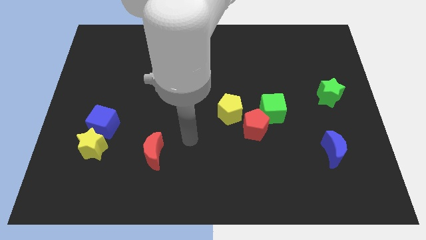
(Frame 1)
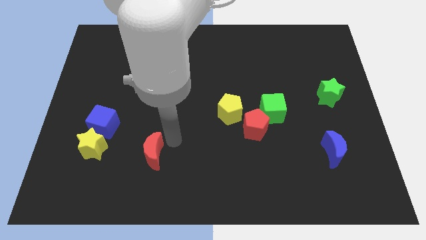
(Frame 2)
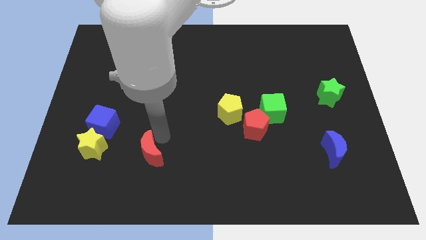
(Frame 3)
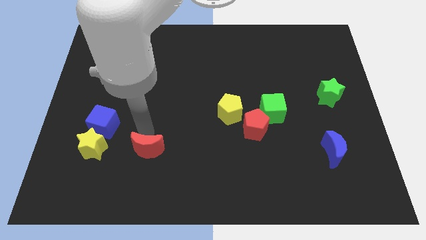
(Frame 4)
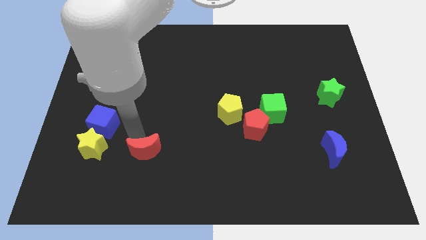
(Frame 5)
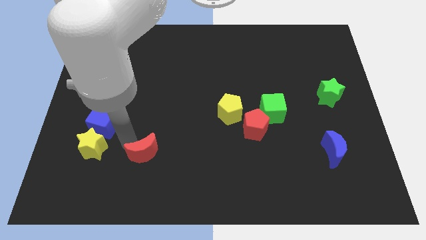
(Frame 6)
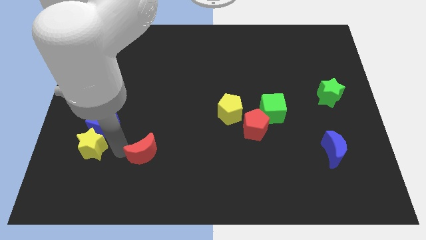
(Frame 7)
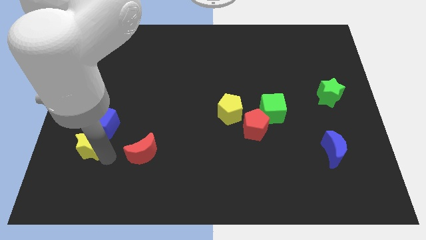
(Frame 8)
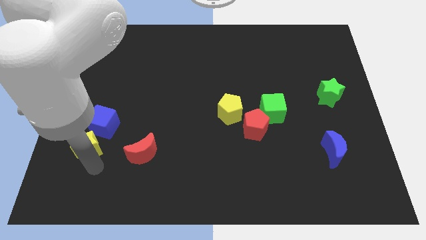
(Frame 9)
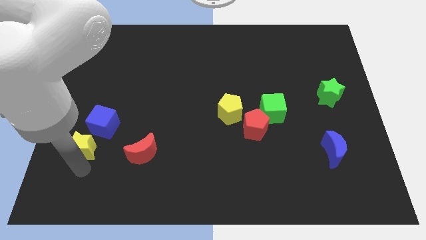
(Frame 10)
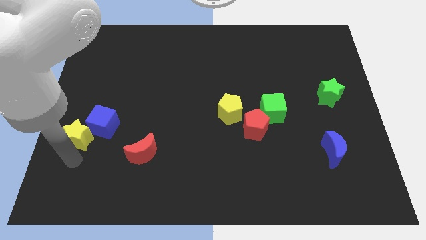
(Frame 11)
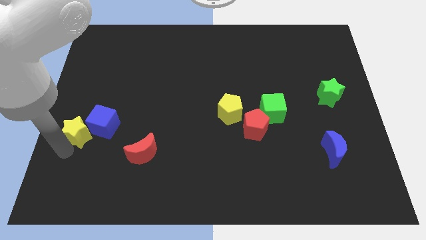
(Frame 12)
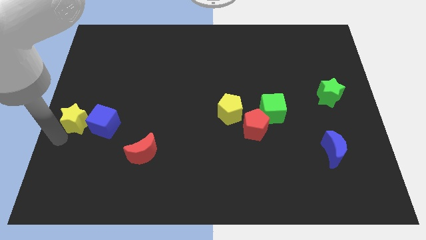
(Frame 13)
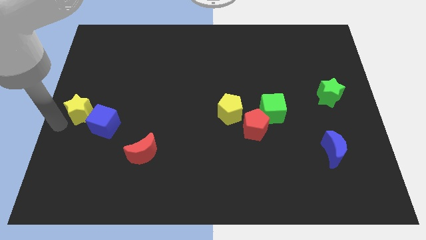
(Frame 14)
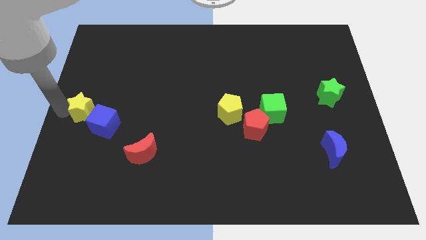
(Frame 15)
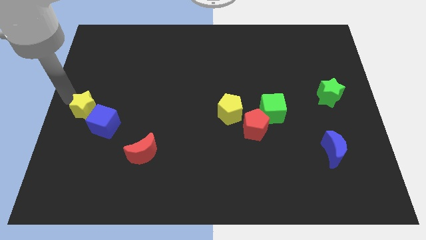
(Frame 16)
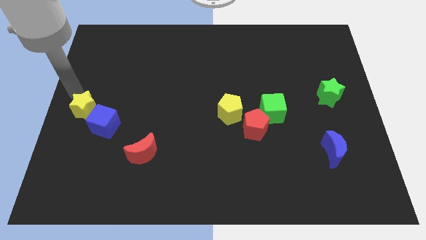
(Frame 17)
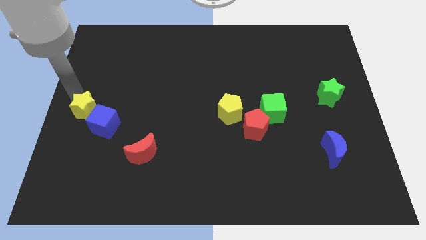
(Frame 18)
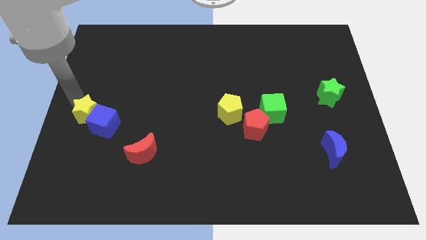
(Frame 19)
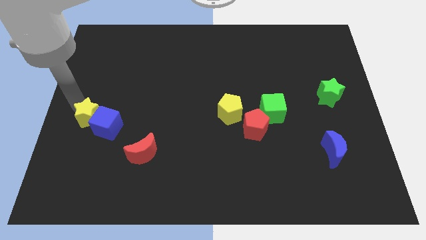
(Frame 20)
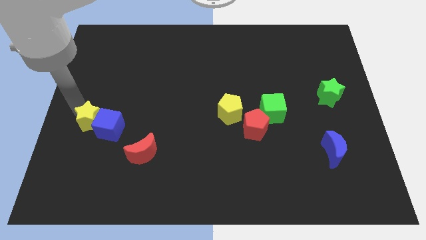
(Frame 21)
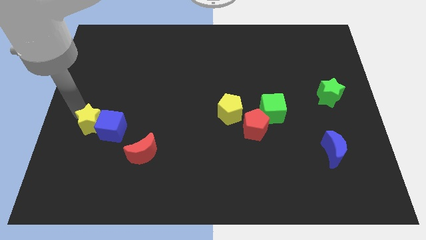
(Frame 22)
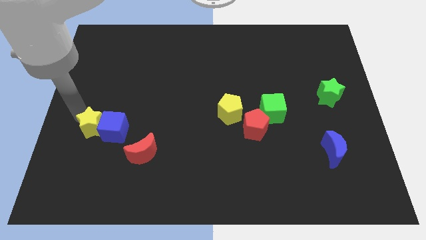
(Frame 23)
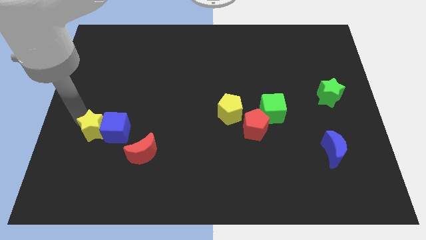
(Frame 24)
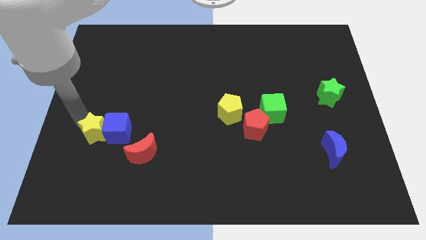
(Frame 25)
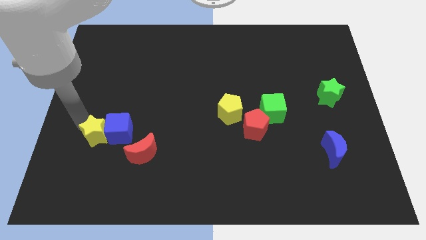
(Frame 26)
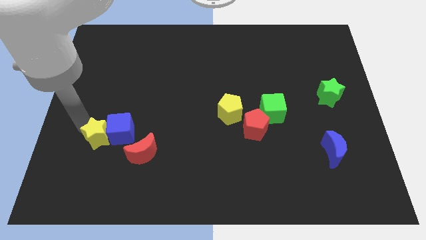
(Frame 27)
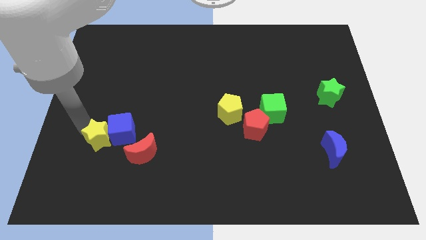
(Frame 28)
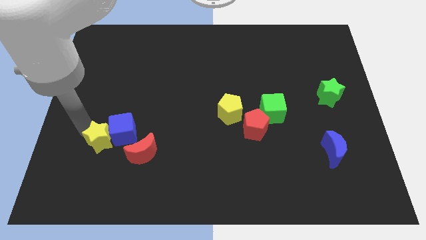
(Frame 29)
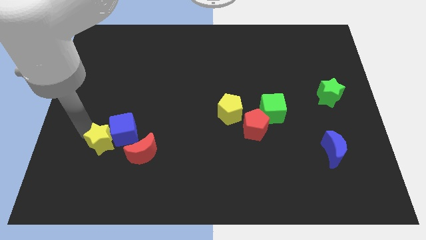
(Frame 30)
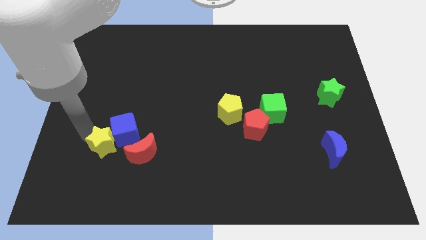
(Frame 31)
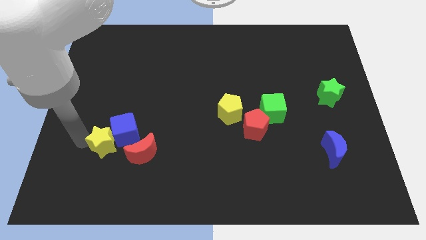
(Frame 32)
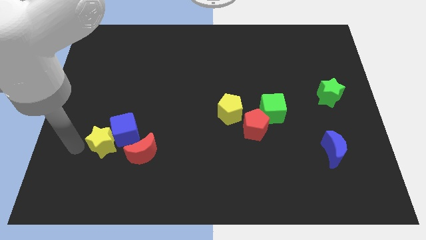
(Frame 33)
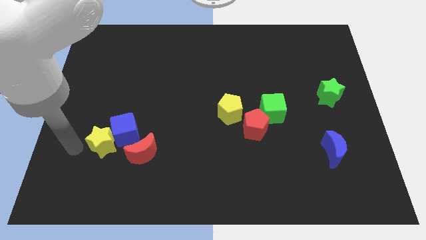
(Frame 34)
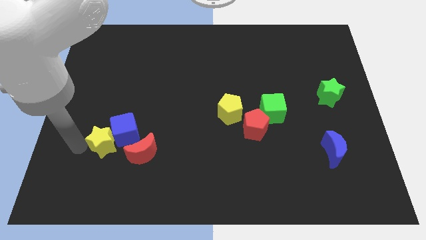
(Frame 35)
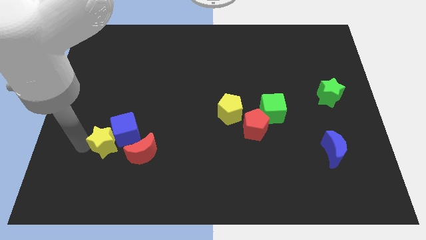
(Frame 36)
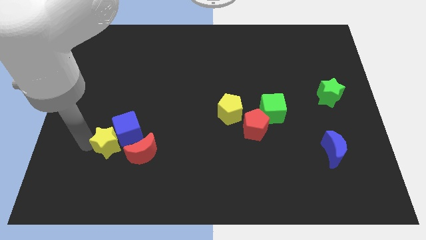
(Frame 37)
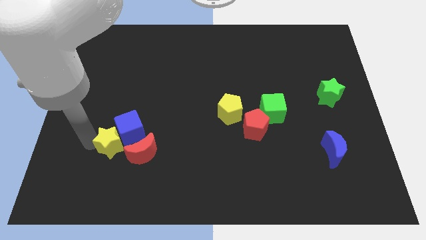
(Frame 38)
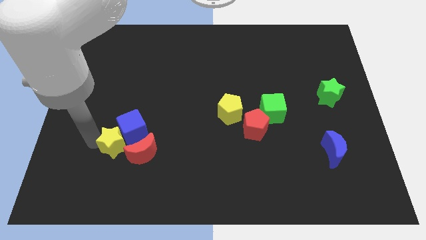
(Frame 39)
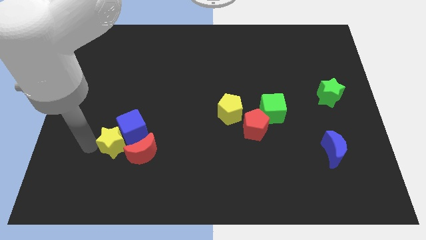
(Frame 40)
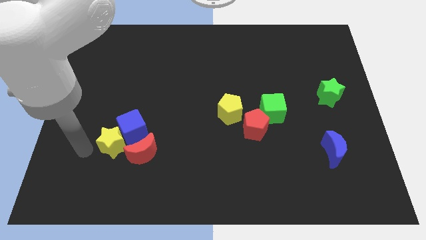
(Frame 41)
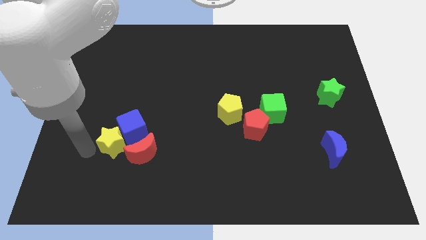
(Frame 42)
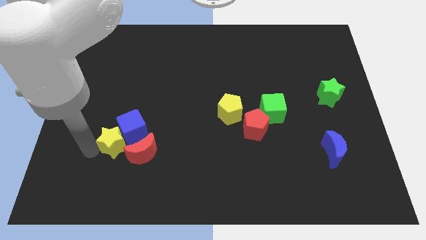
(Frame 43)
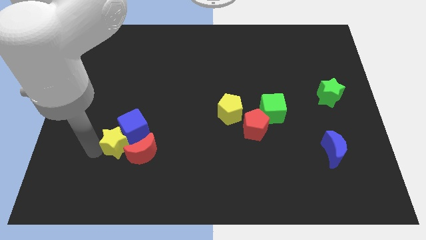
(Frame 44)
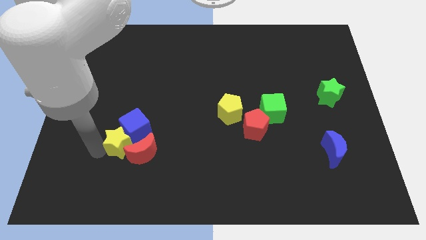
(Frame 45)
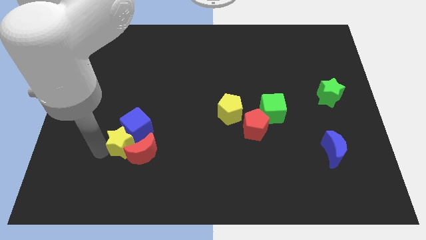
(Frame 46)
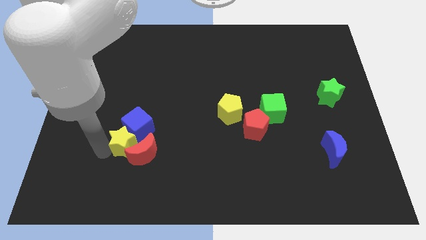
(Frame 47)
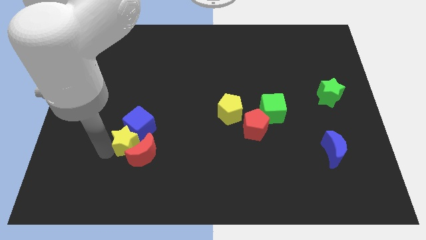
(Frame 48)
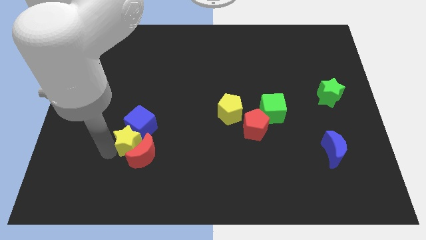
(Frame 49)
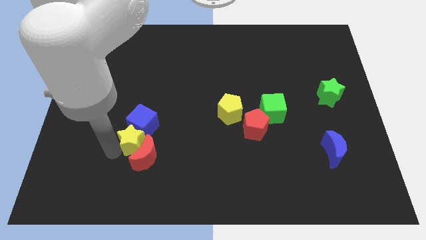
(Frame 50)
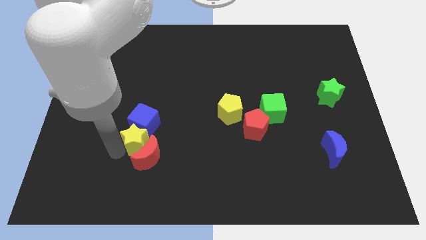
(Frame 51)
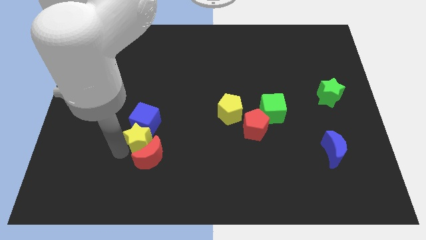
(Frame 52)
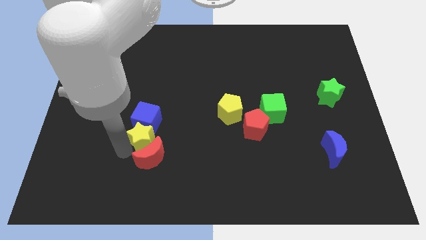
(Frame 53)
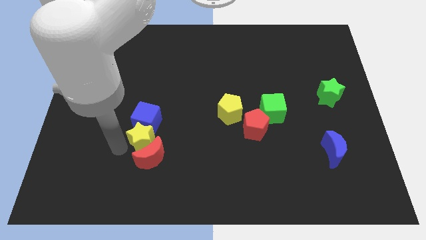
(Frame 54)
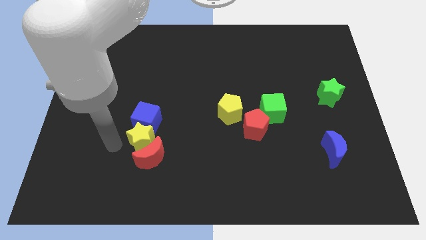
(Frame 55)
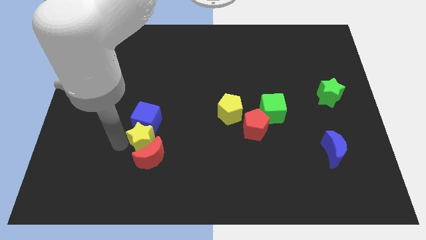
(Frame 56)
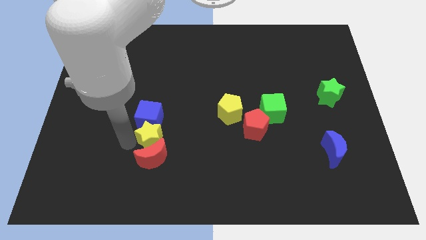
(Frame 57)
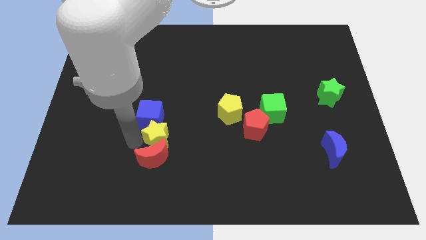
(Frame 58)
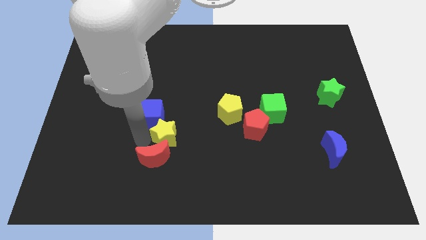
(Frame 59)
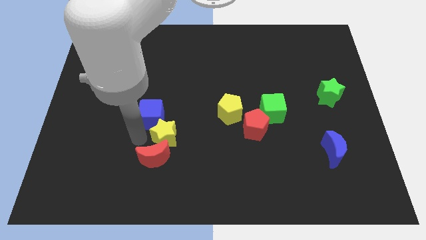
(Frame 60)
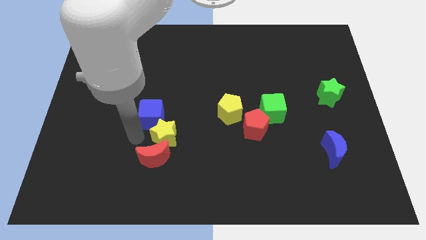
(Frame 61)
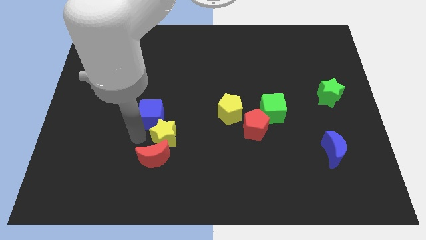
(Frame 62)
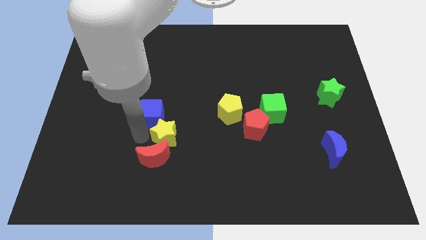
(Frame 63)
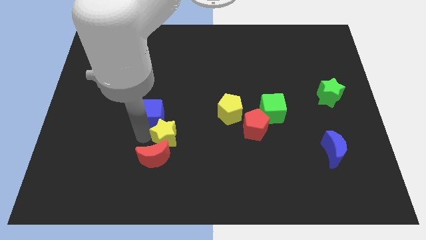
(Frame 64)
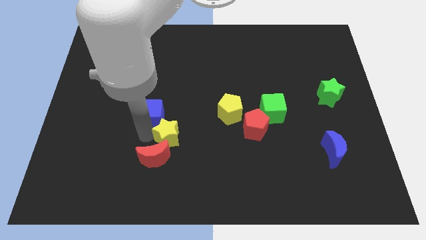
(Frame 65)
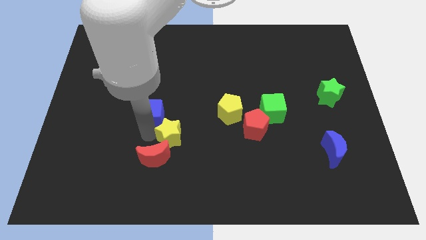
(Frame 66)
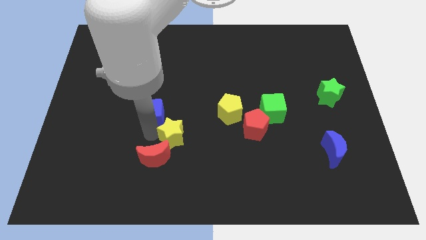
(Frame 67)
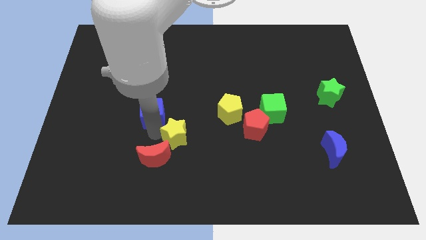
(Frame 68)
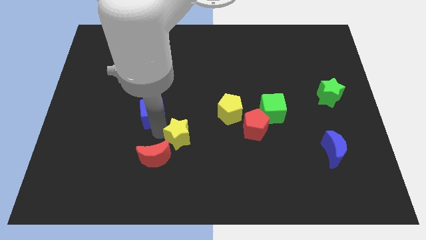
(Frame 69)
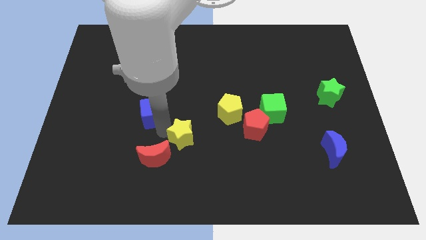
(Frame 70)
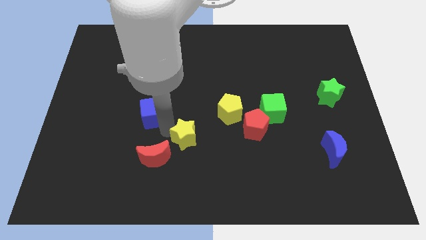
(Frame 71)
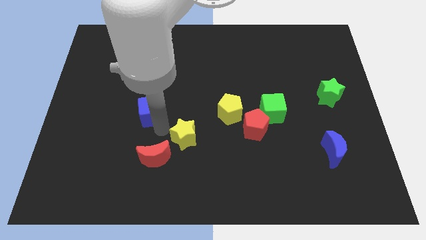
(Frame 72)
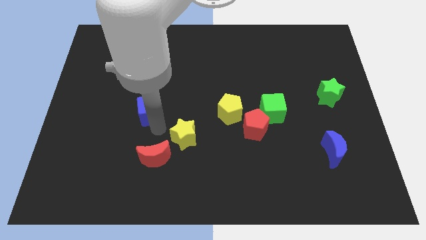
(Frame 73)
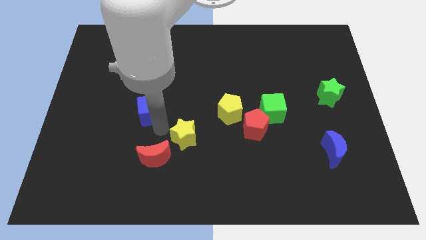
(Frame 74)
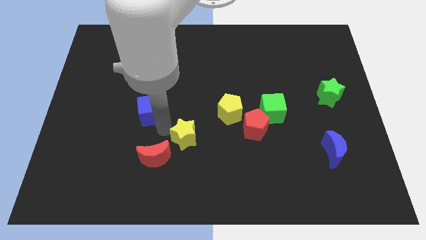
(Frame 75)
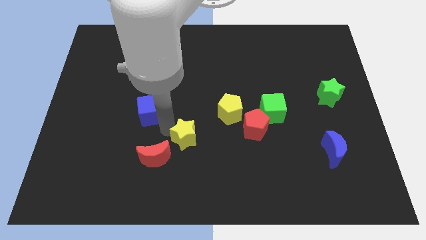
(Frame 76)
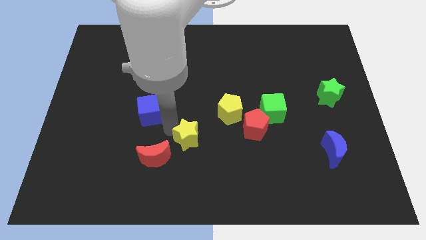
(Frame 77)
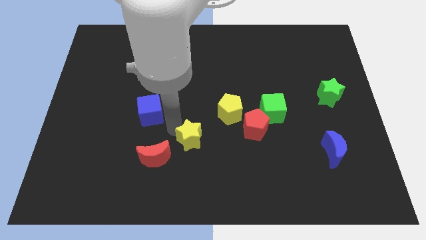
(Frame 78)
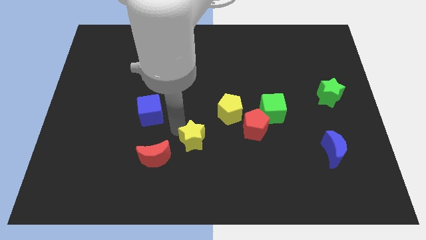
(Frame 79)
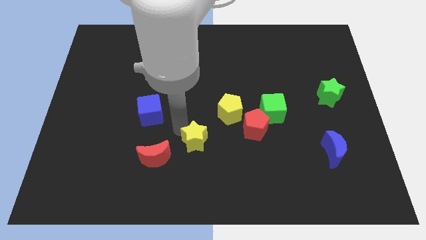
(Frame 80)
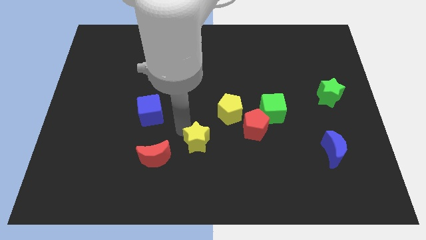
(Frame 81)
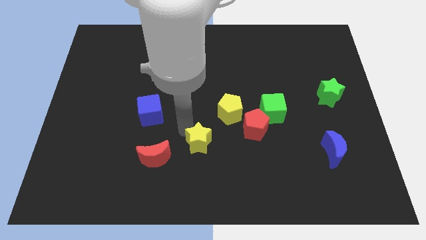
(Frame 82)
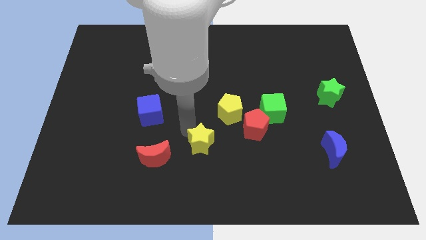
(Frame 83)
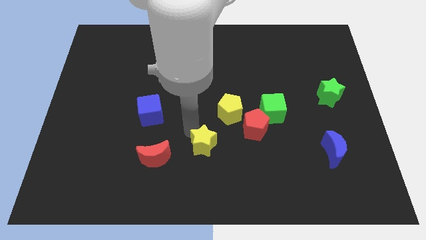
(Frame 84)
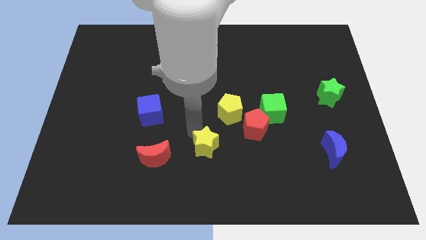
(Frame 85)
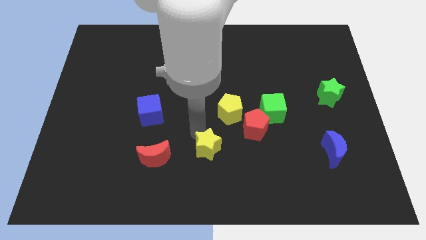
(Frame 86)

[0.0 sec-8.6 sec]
push the yellow star to the bottom left of the red pentagon
